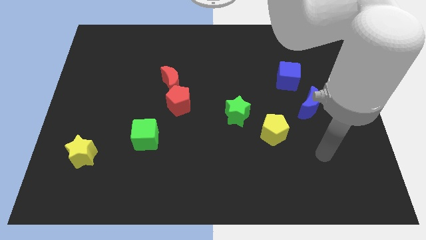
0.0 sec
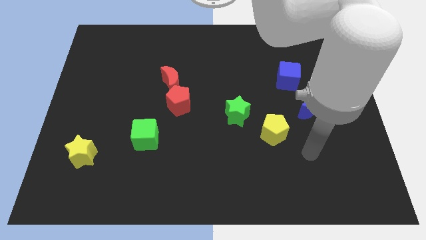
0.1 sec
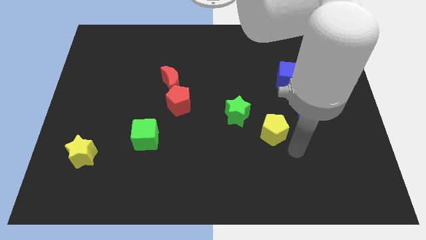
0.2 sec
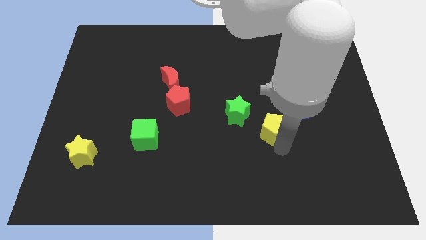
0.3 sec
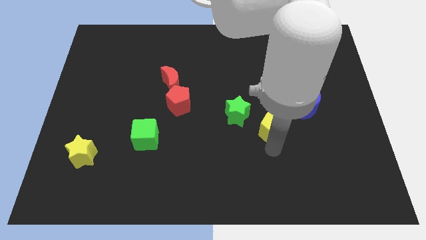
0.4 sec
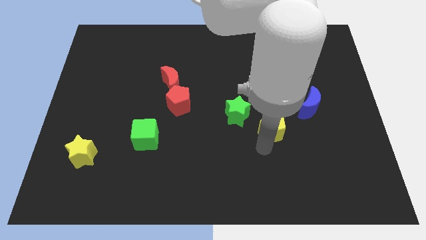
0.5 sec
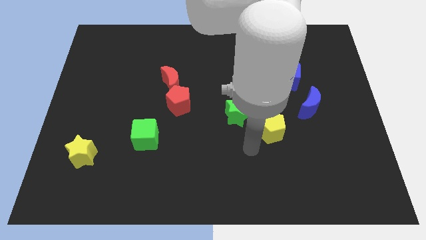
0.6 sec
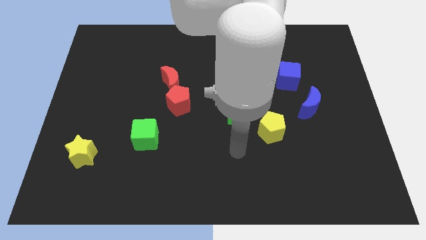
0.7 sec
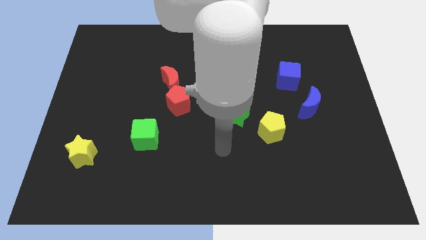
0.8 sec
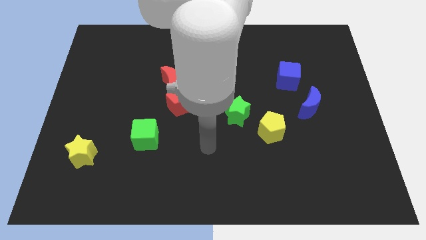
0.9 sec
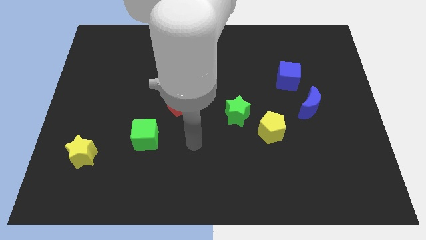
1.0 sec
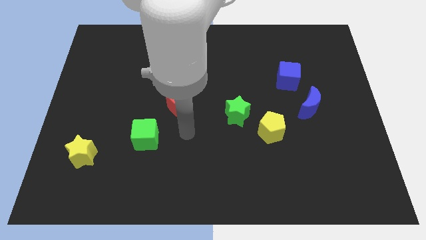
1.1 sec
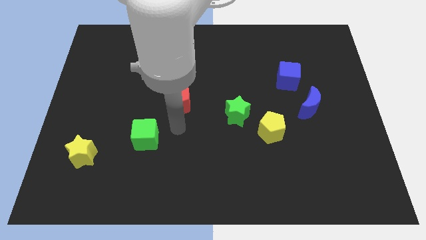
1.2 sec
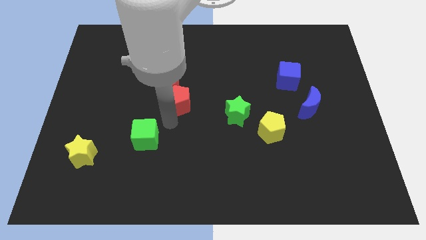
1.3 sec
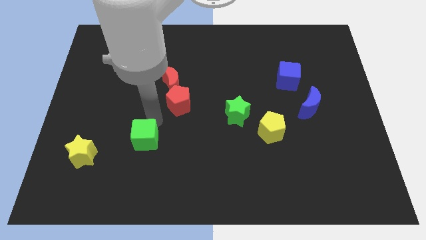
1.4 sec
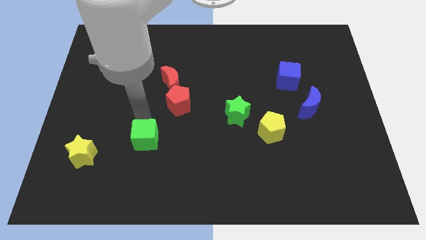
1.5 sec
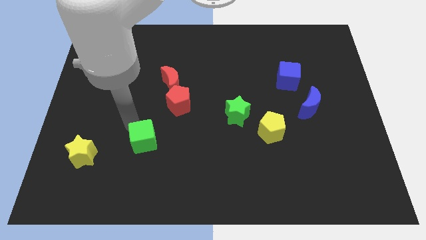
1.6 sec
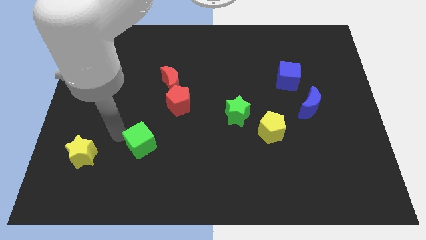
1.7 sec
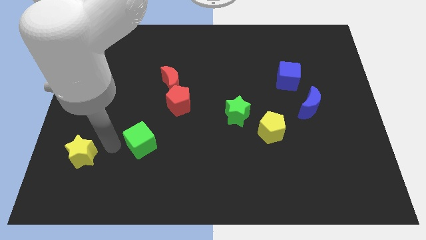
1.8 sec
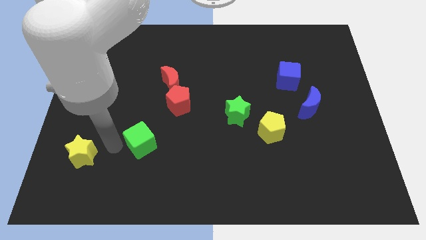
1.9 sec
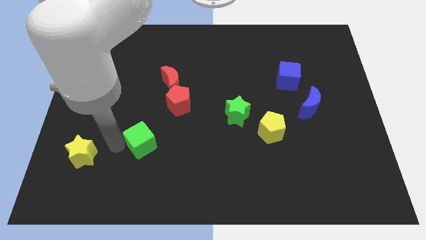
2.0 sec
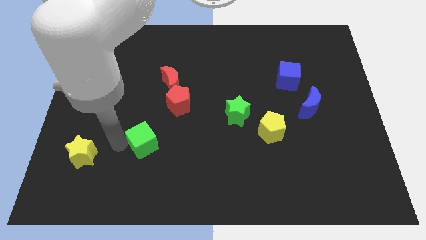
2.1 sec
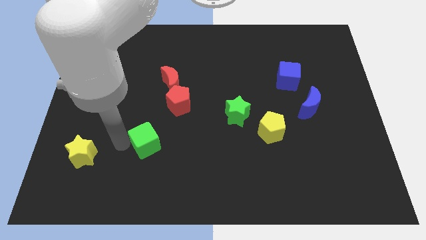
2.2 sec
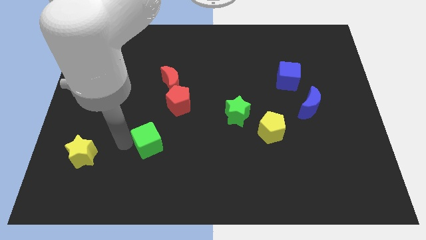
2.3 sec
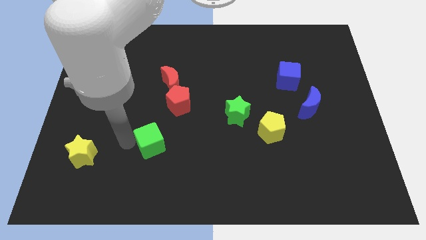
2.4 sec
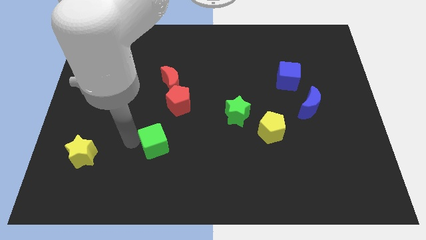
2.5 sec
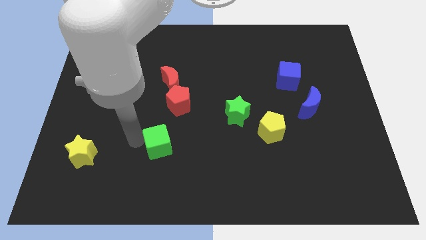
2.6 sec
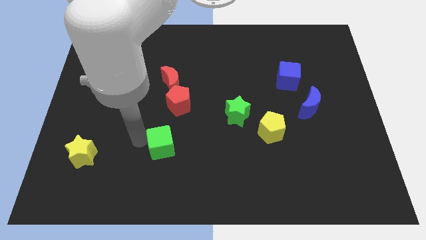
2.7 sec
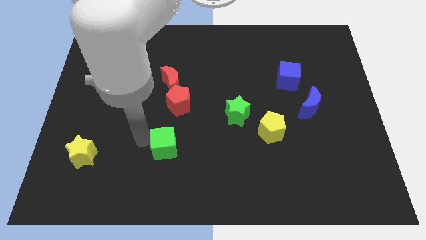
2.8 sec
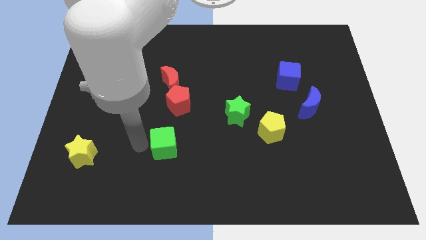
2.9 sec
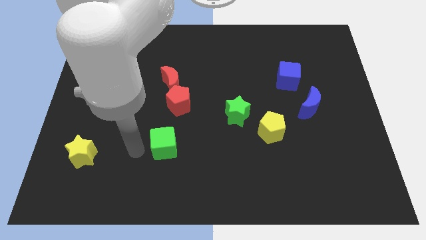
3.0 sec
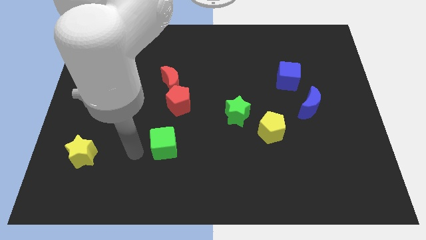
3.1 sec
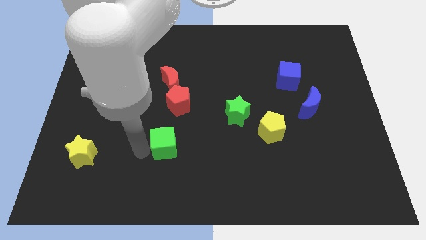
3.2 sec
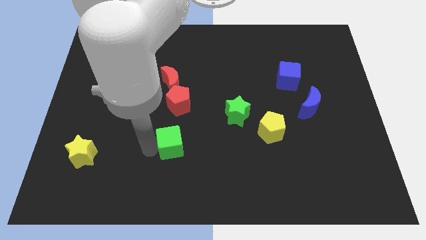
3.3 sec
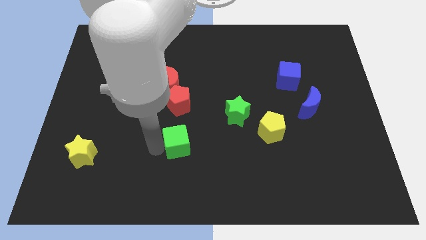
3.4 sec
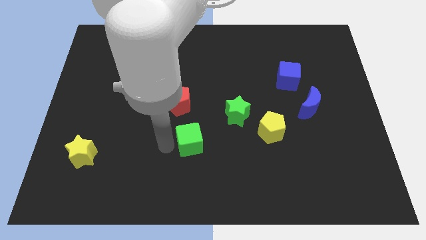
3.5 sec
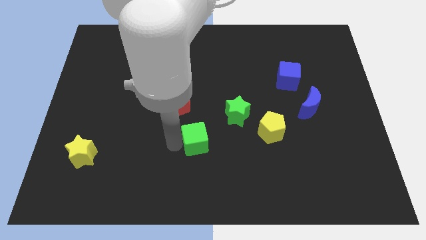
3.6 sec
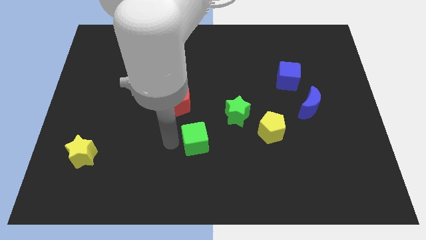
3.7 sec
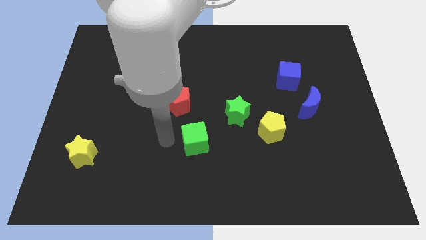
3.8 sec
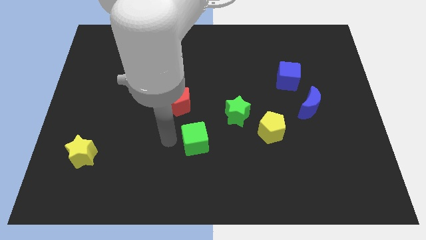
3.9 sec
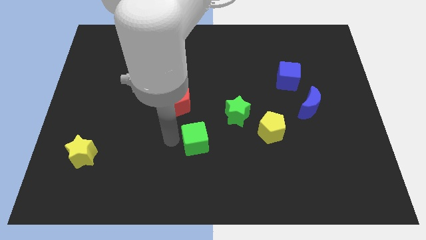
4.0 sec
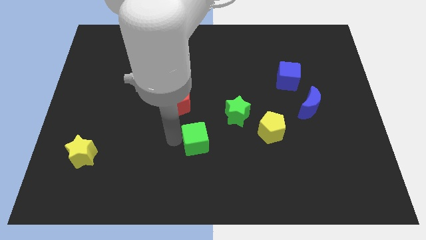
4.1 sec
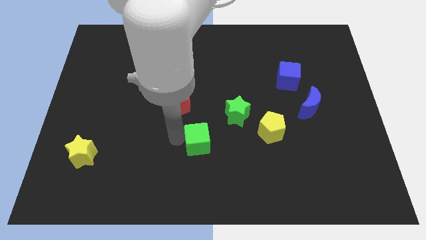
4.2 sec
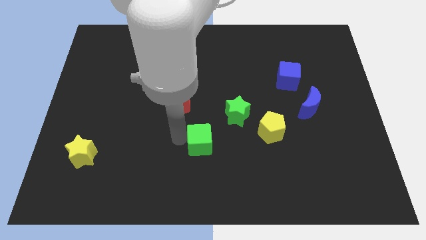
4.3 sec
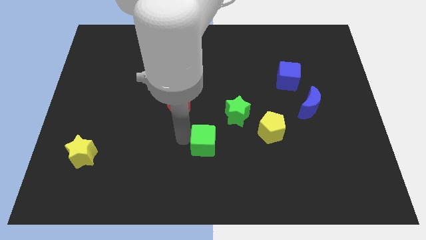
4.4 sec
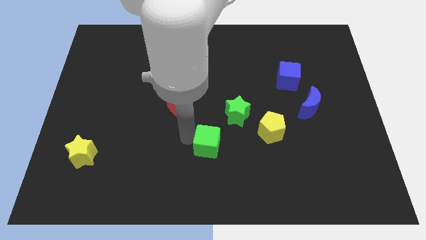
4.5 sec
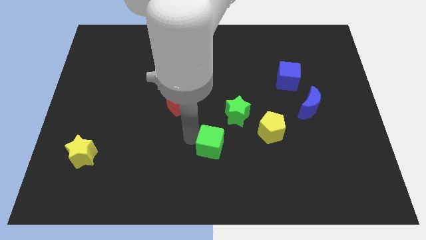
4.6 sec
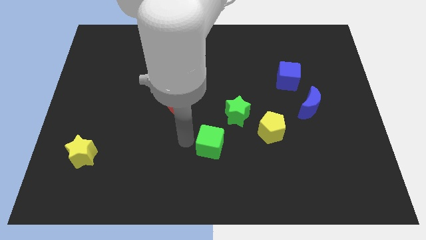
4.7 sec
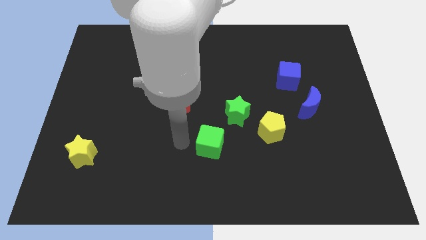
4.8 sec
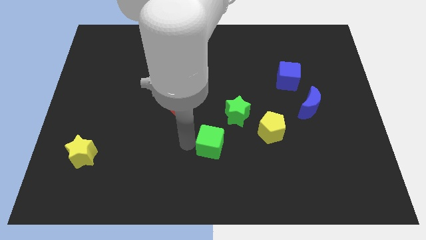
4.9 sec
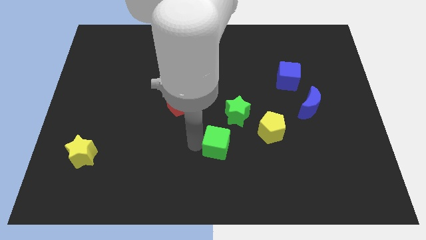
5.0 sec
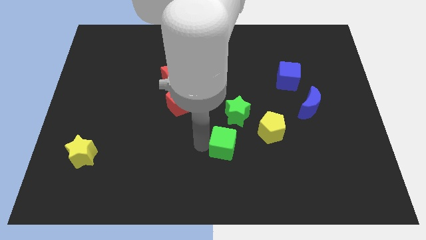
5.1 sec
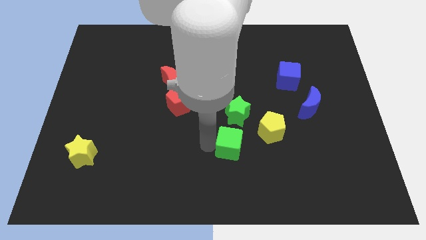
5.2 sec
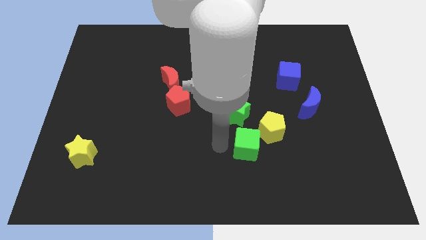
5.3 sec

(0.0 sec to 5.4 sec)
push the green cube to the right

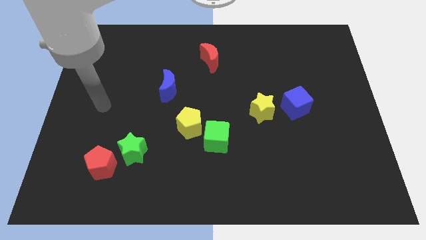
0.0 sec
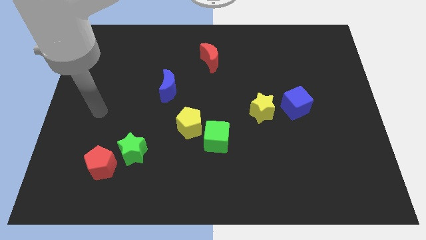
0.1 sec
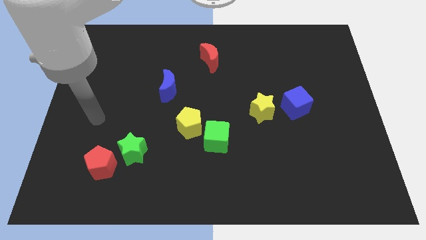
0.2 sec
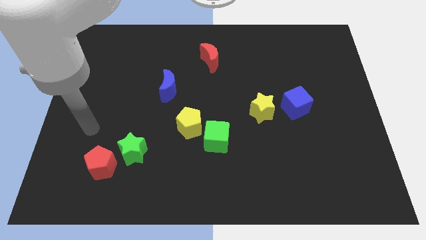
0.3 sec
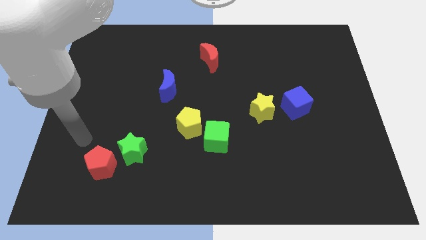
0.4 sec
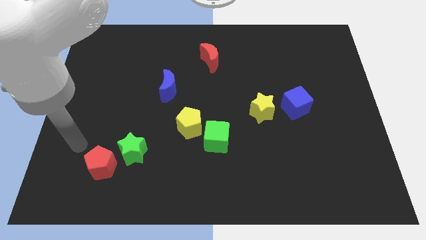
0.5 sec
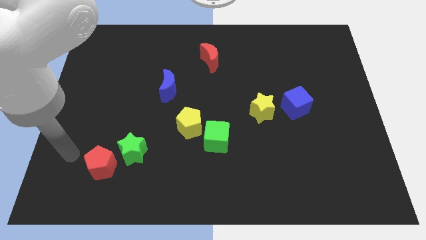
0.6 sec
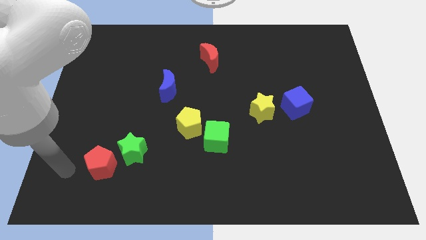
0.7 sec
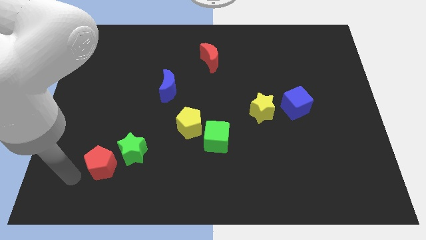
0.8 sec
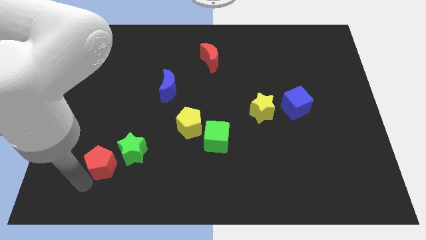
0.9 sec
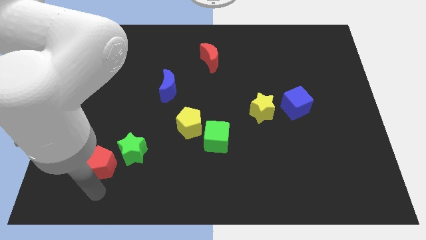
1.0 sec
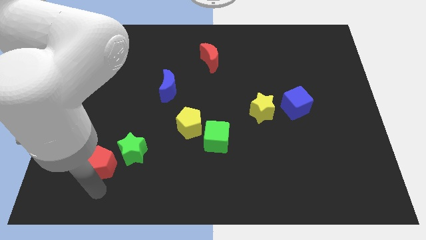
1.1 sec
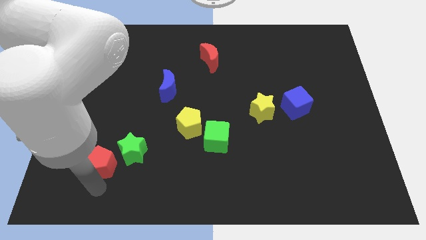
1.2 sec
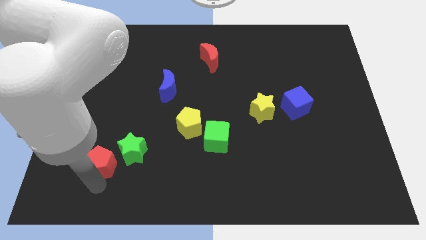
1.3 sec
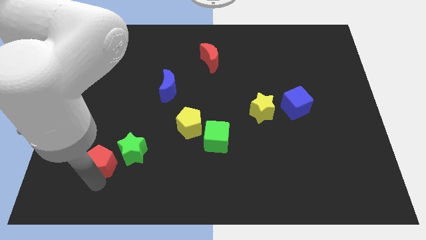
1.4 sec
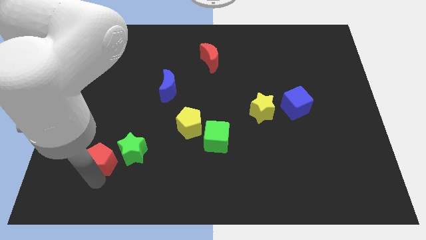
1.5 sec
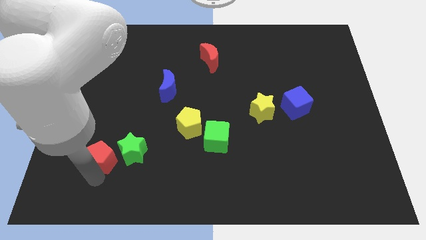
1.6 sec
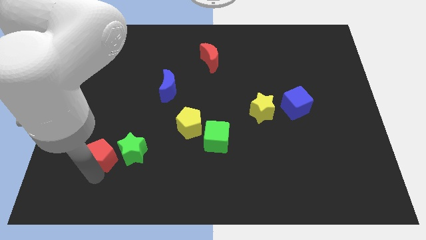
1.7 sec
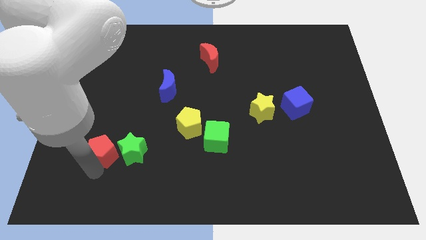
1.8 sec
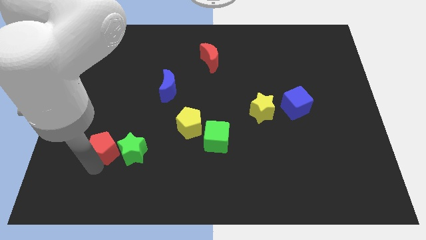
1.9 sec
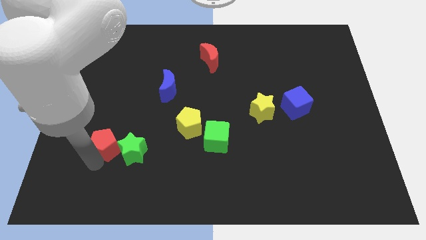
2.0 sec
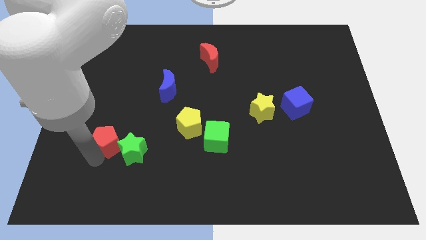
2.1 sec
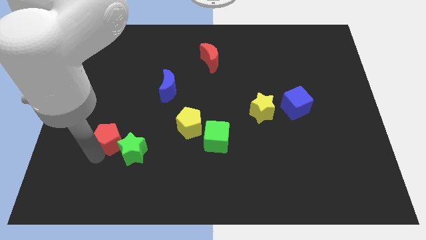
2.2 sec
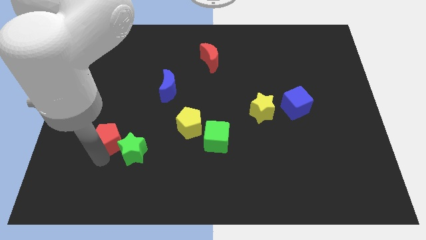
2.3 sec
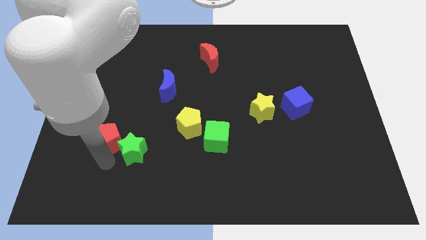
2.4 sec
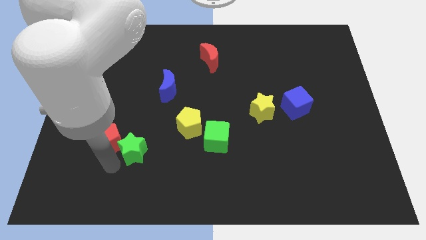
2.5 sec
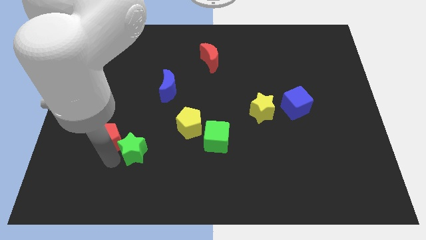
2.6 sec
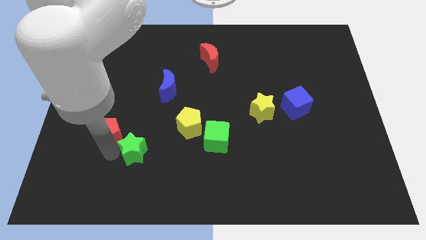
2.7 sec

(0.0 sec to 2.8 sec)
slide the red pentagon upwards a little bit
